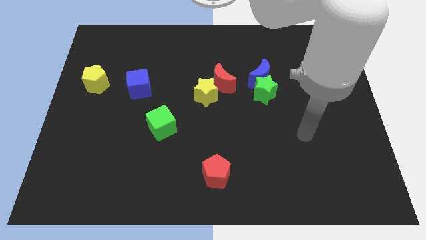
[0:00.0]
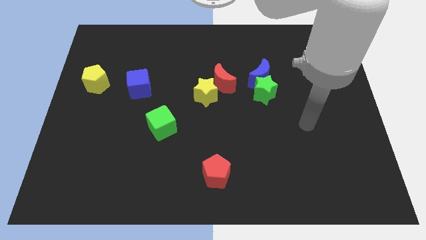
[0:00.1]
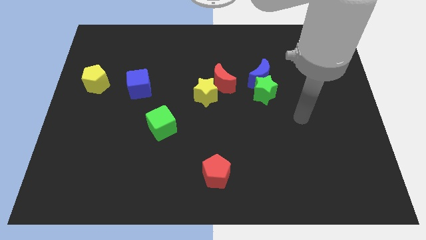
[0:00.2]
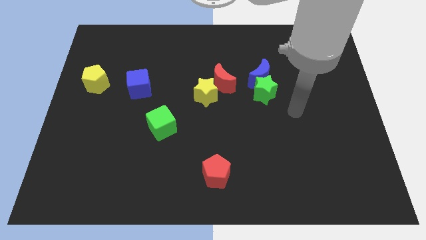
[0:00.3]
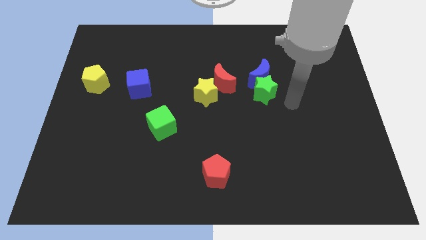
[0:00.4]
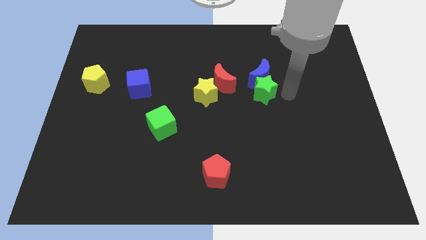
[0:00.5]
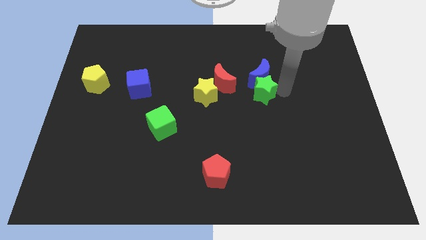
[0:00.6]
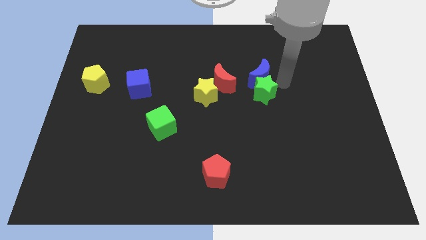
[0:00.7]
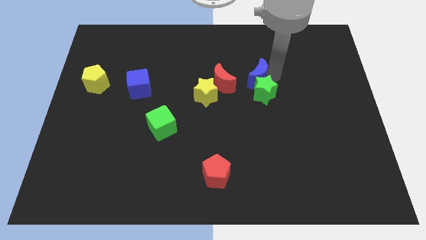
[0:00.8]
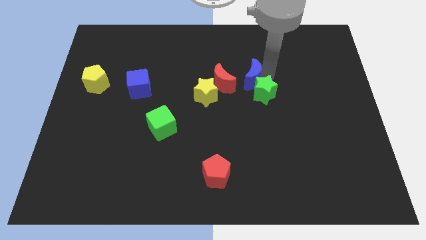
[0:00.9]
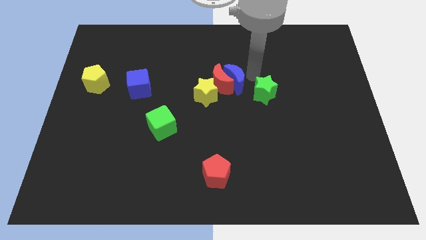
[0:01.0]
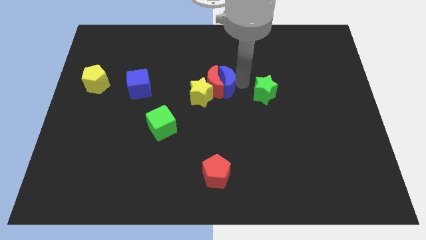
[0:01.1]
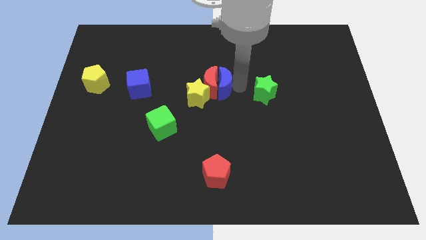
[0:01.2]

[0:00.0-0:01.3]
separate the green star from the blue moon

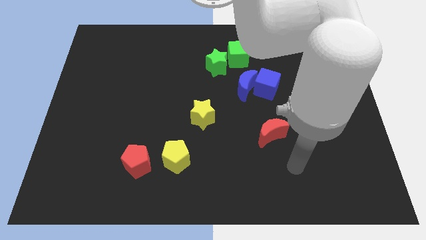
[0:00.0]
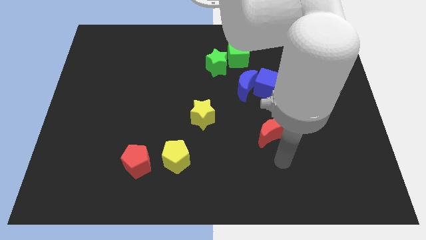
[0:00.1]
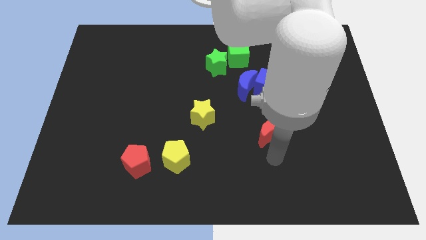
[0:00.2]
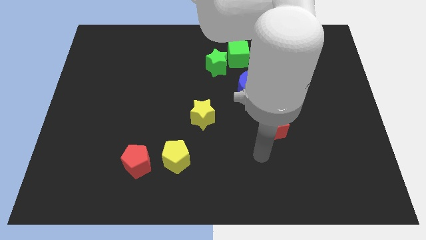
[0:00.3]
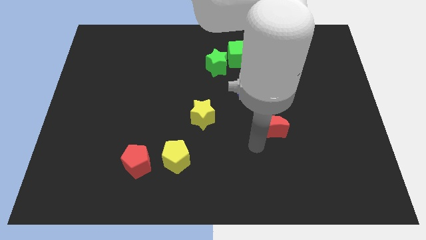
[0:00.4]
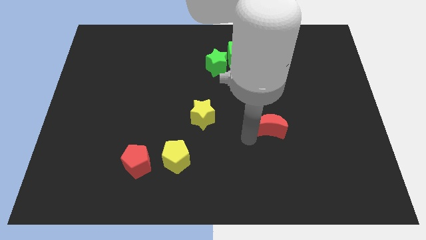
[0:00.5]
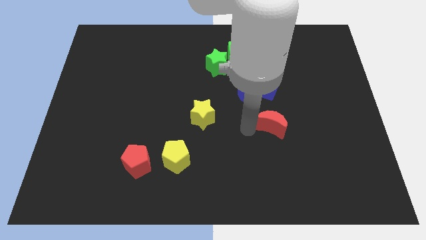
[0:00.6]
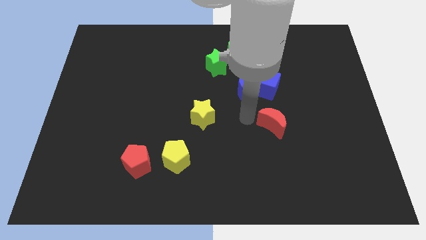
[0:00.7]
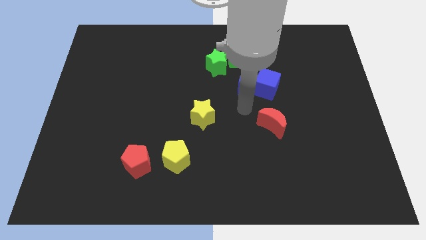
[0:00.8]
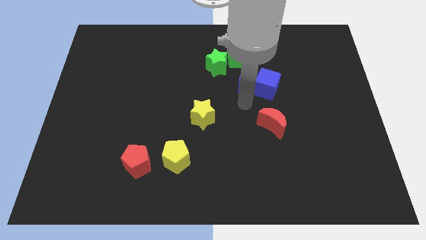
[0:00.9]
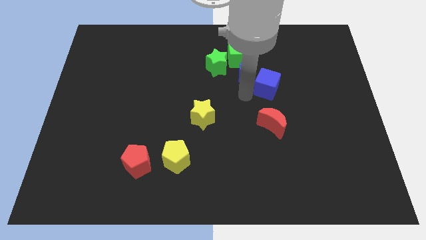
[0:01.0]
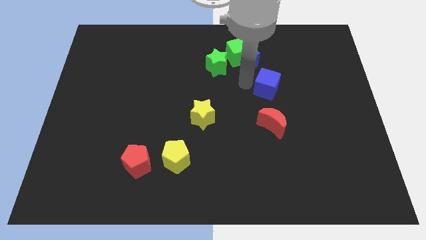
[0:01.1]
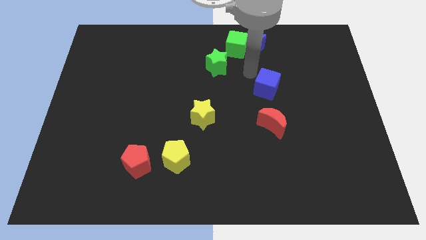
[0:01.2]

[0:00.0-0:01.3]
move the blue cube away from the blue moon

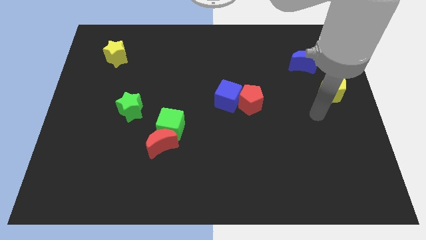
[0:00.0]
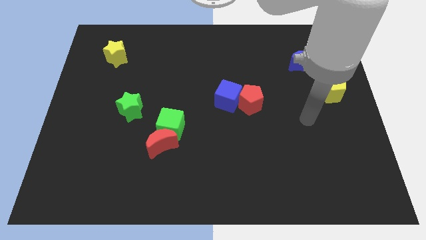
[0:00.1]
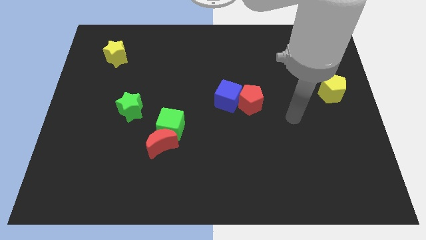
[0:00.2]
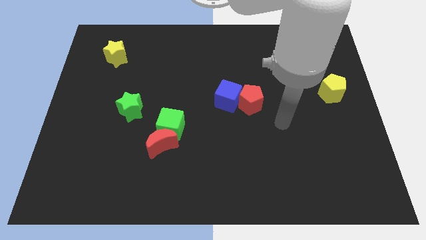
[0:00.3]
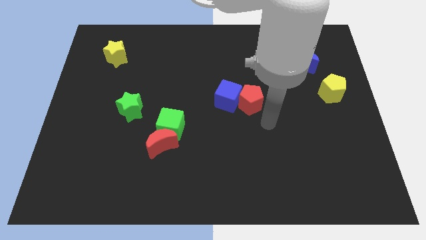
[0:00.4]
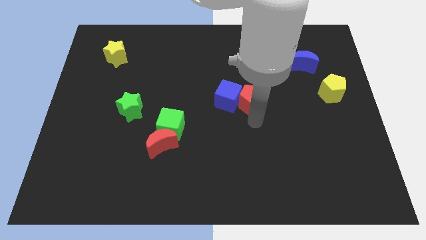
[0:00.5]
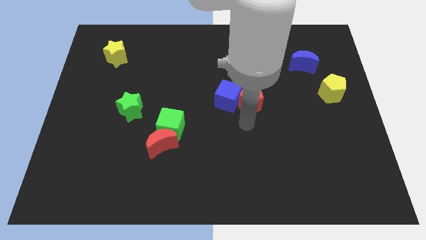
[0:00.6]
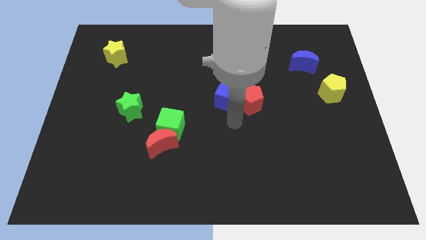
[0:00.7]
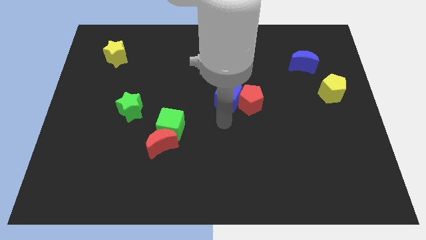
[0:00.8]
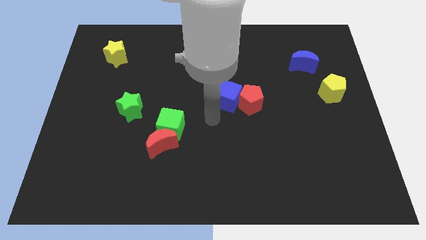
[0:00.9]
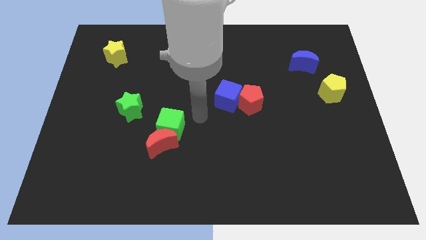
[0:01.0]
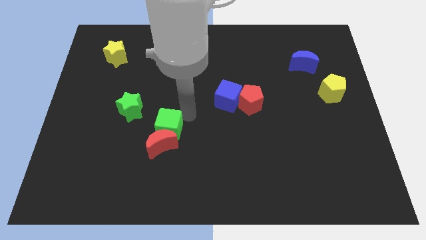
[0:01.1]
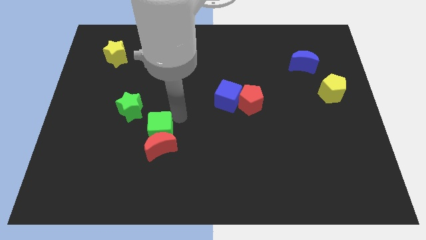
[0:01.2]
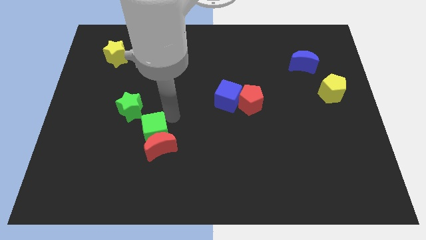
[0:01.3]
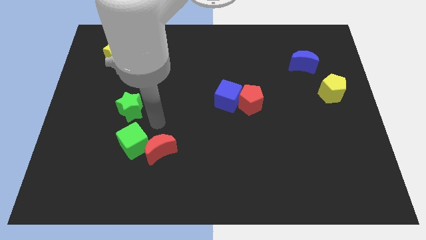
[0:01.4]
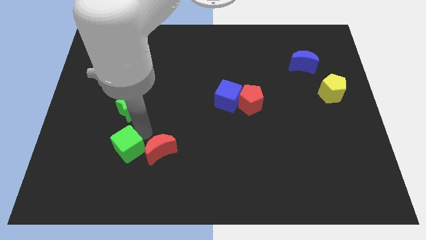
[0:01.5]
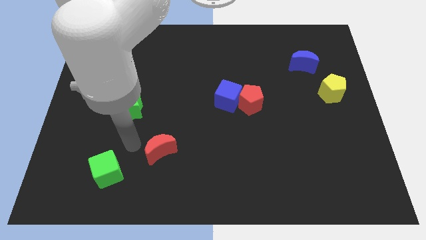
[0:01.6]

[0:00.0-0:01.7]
separate the red moon from the green cube

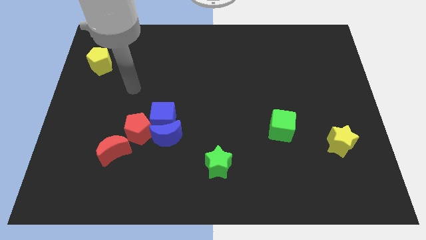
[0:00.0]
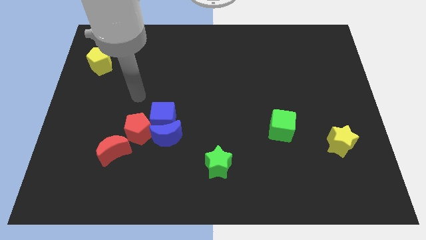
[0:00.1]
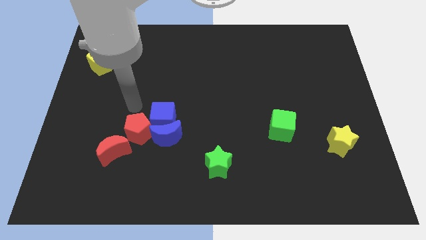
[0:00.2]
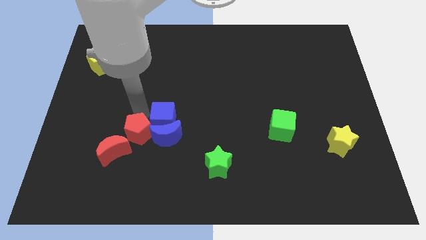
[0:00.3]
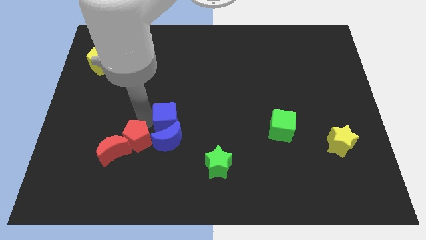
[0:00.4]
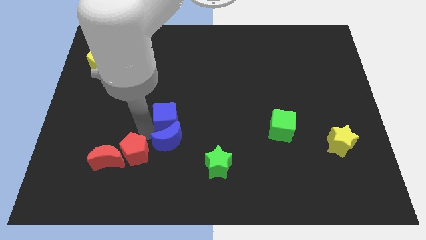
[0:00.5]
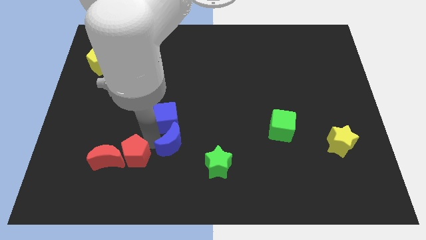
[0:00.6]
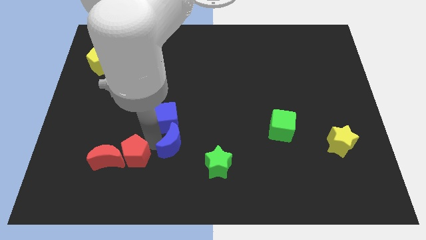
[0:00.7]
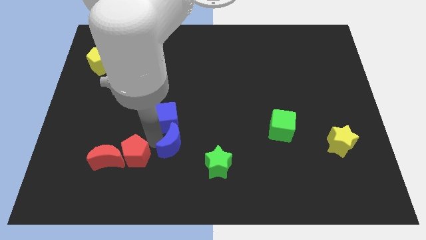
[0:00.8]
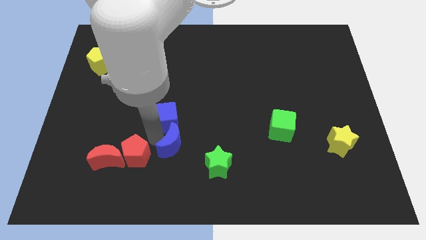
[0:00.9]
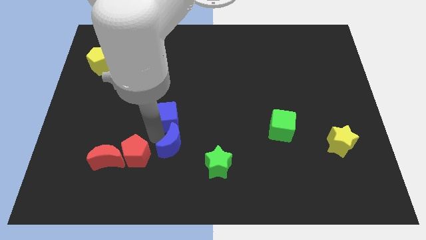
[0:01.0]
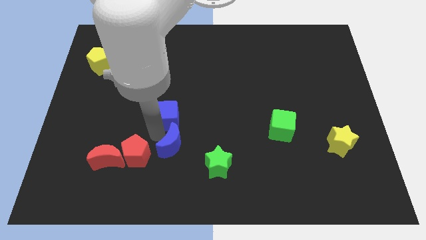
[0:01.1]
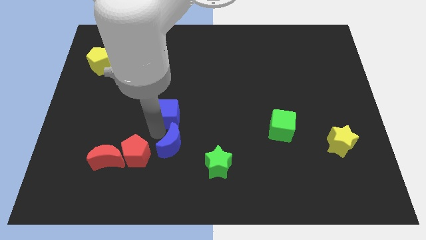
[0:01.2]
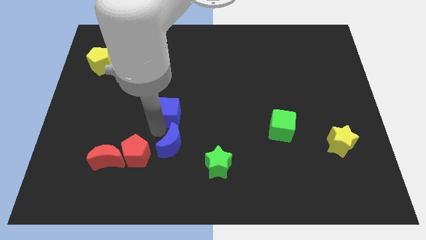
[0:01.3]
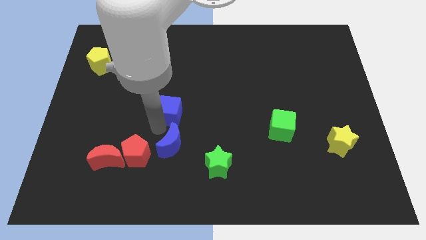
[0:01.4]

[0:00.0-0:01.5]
separate the blue cube from the blue moon and red pentagon

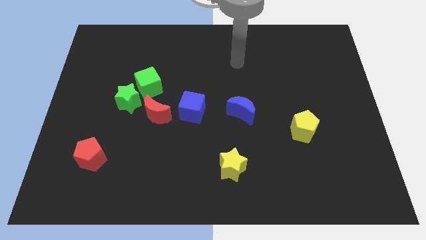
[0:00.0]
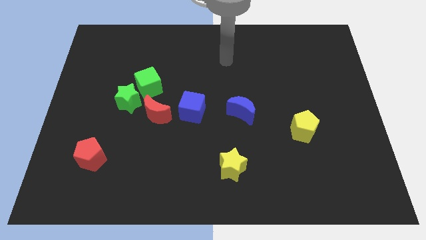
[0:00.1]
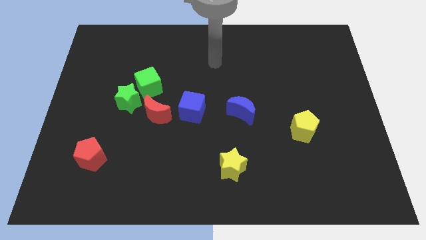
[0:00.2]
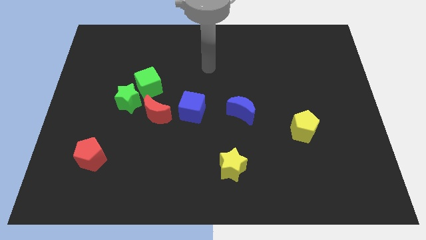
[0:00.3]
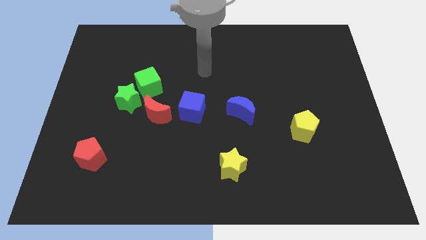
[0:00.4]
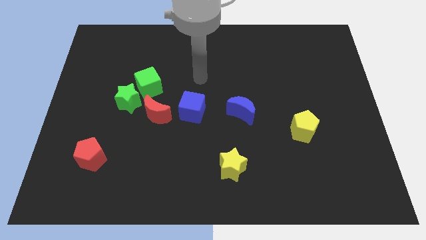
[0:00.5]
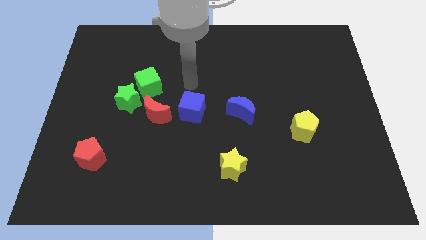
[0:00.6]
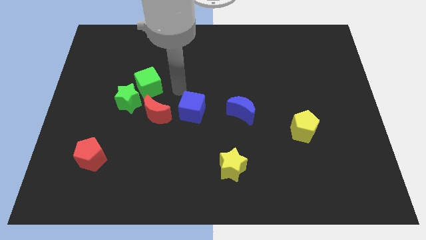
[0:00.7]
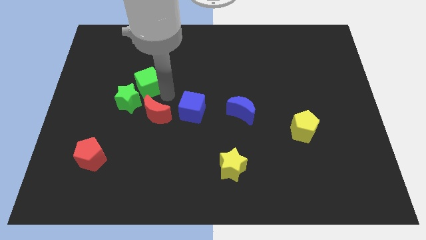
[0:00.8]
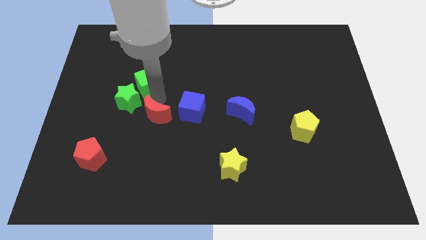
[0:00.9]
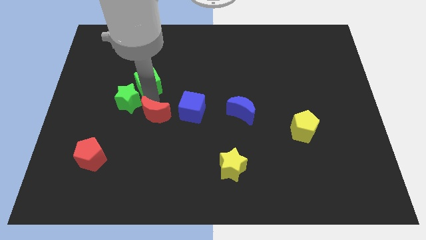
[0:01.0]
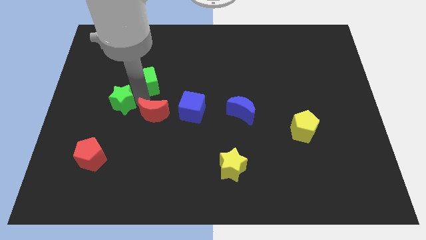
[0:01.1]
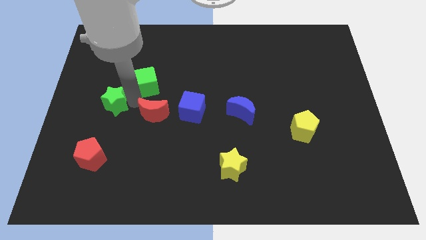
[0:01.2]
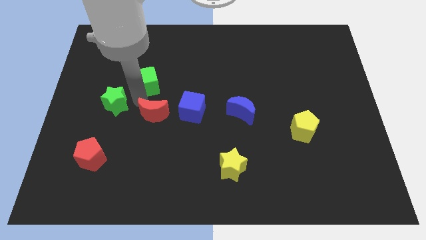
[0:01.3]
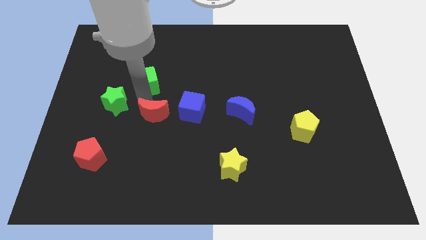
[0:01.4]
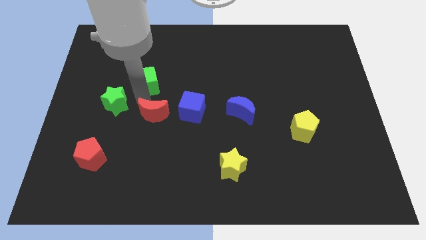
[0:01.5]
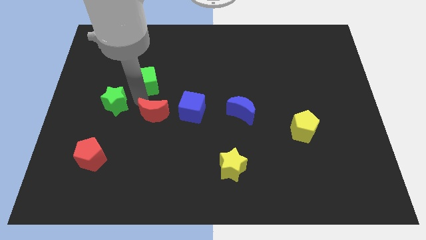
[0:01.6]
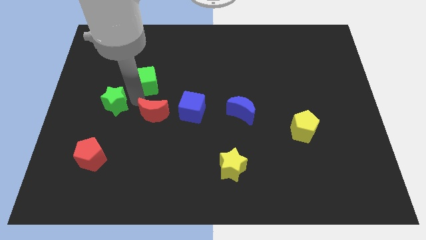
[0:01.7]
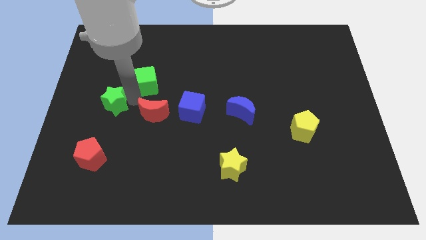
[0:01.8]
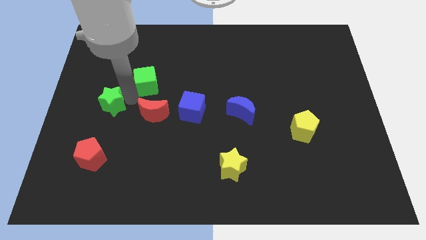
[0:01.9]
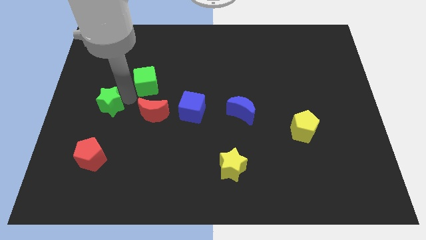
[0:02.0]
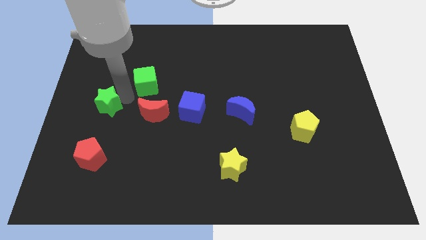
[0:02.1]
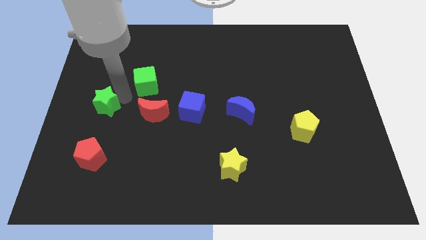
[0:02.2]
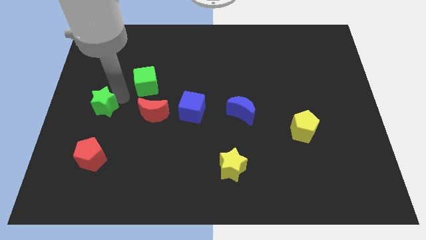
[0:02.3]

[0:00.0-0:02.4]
move the green star away from the green cube and red moon

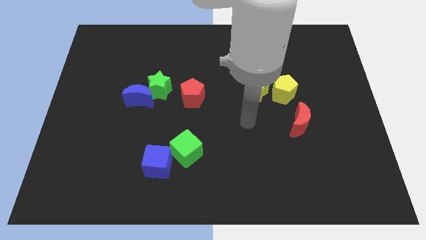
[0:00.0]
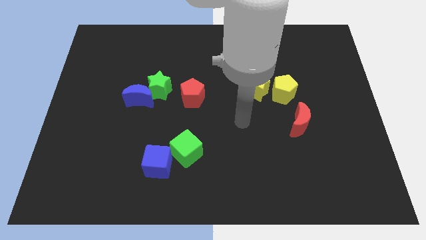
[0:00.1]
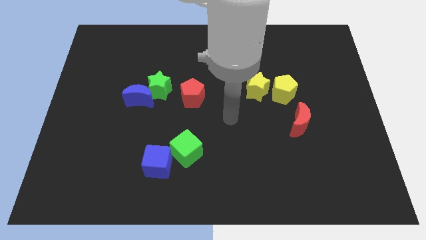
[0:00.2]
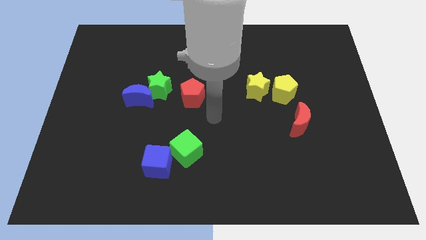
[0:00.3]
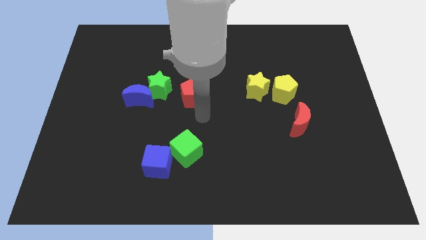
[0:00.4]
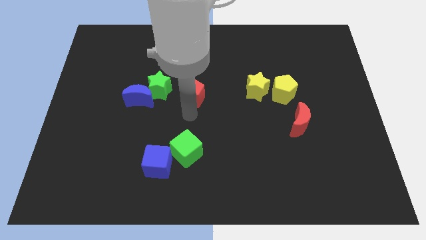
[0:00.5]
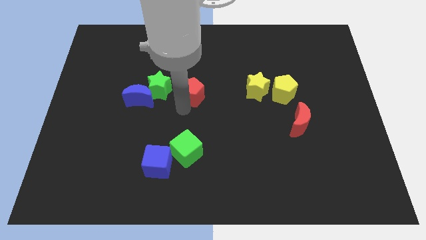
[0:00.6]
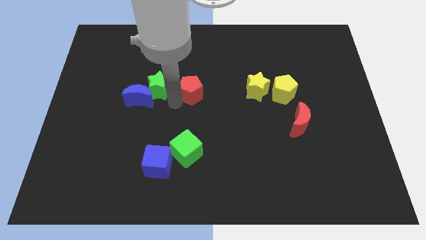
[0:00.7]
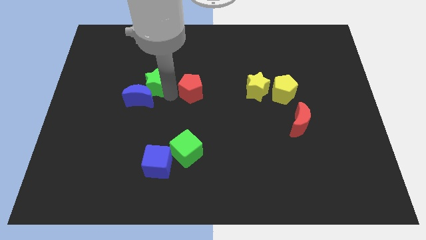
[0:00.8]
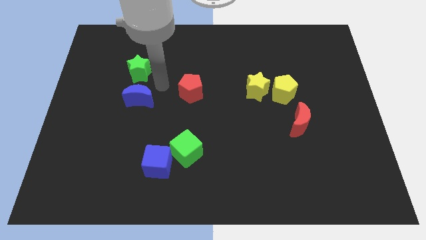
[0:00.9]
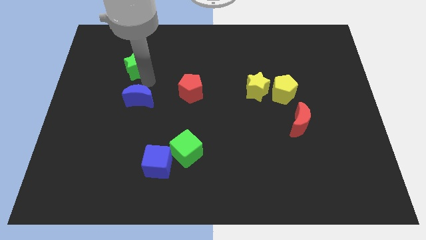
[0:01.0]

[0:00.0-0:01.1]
move the blue moon away from the green star
